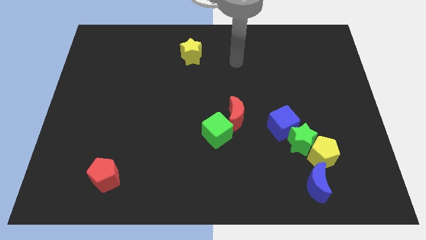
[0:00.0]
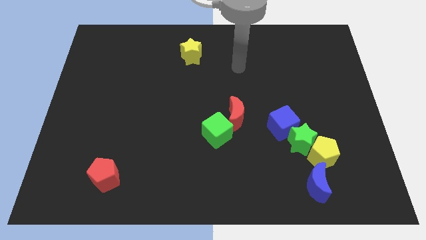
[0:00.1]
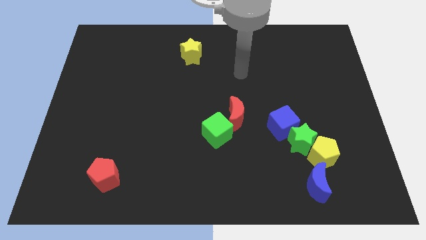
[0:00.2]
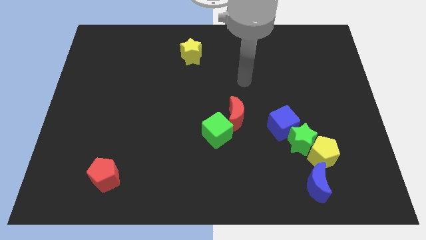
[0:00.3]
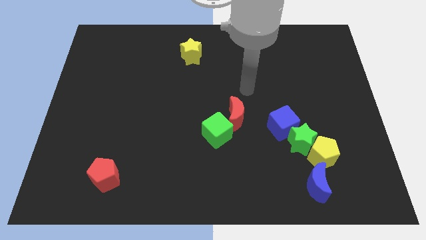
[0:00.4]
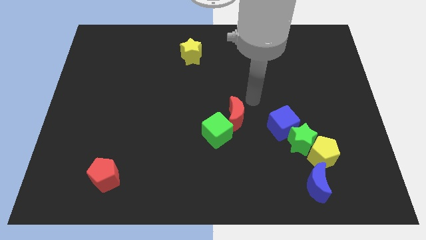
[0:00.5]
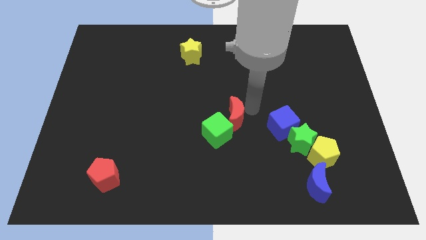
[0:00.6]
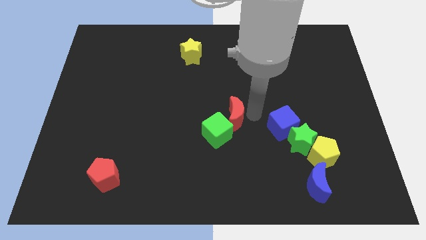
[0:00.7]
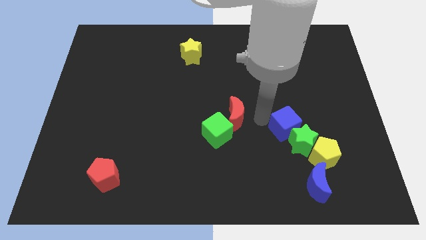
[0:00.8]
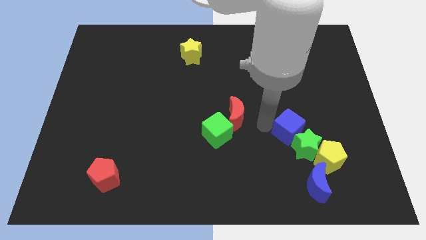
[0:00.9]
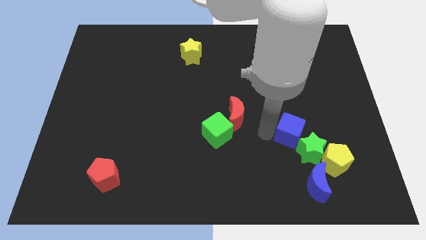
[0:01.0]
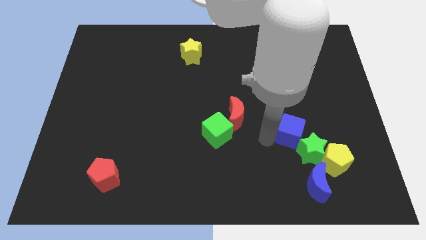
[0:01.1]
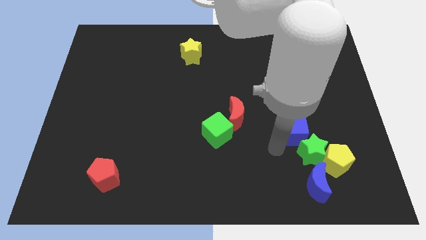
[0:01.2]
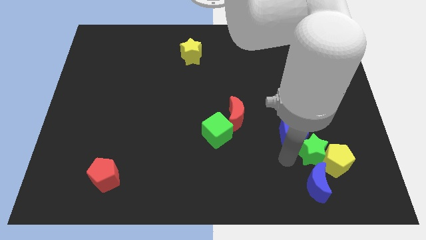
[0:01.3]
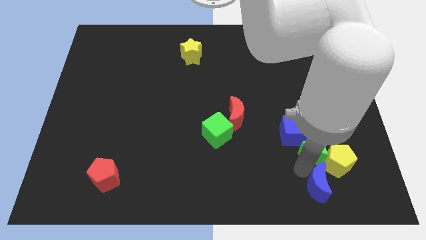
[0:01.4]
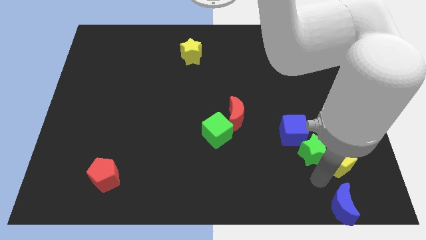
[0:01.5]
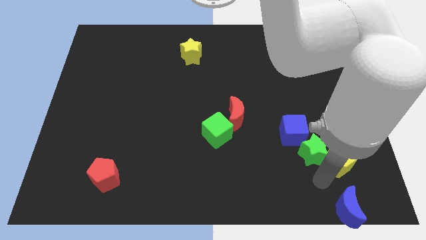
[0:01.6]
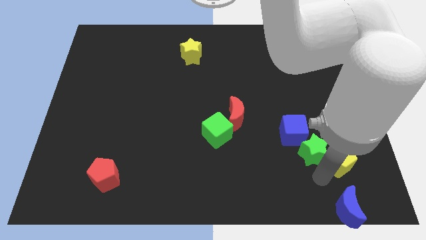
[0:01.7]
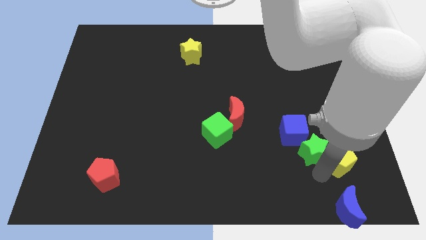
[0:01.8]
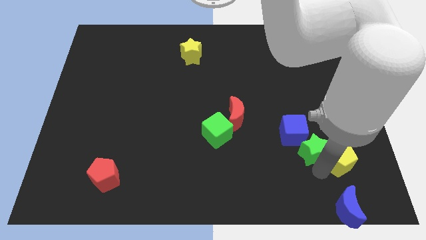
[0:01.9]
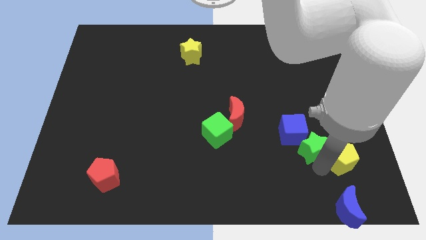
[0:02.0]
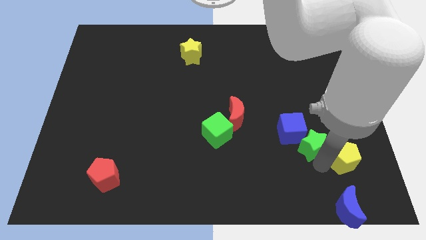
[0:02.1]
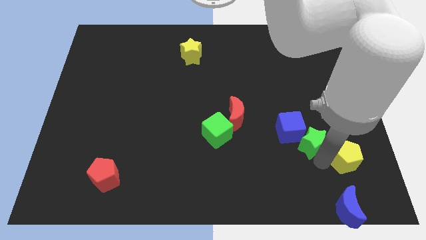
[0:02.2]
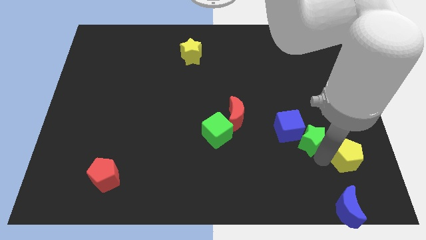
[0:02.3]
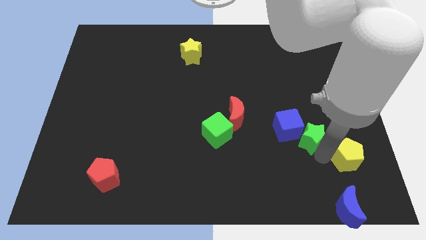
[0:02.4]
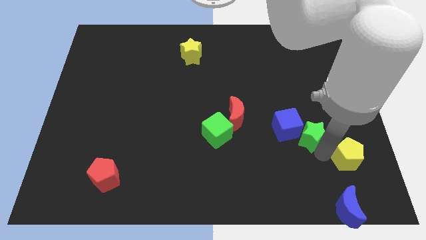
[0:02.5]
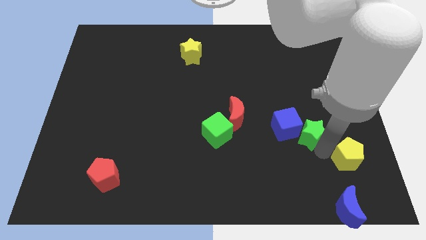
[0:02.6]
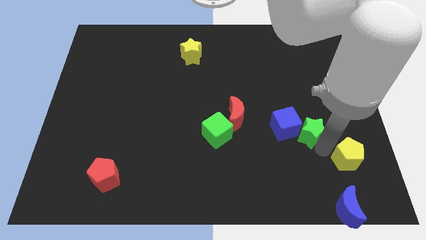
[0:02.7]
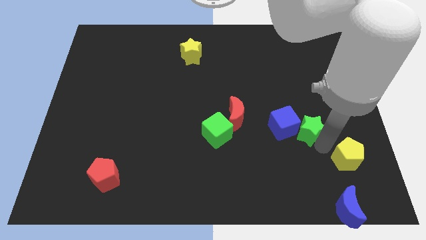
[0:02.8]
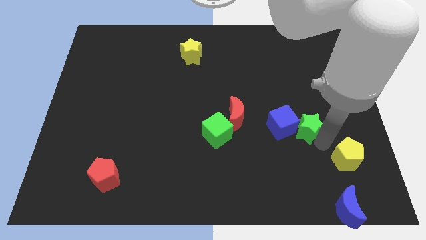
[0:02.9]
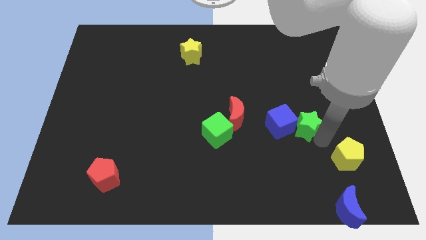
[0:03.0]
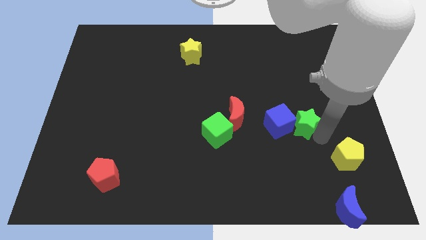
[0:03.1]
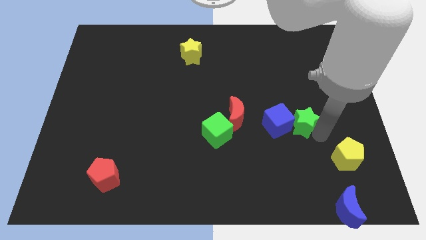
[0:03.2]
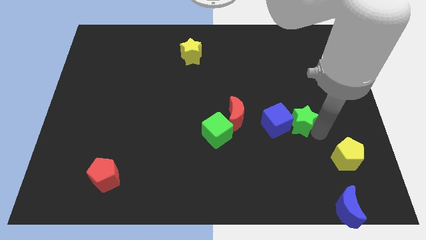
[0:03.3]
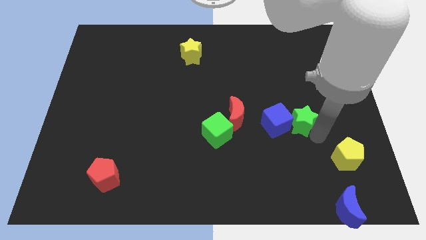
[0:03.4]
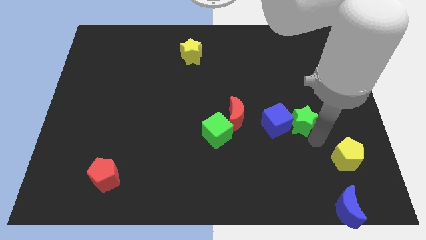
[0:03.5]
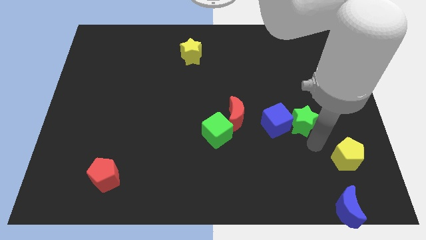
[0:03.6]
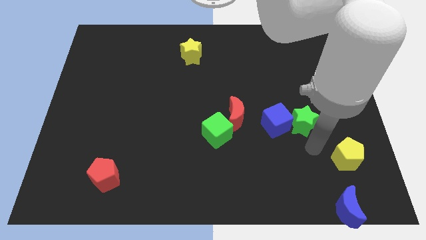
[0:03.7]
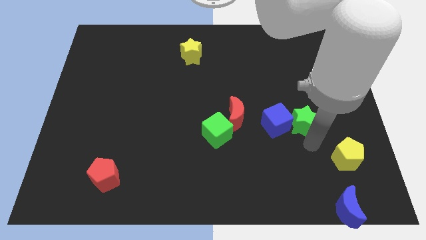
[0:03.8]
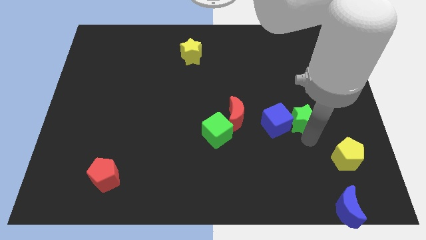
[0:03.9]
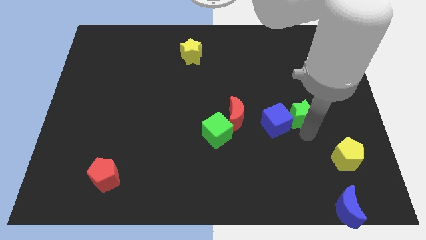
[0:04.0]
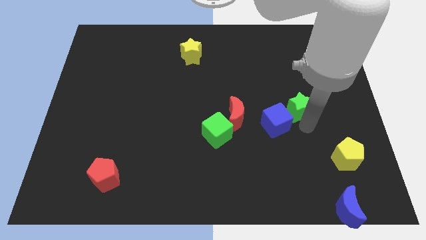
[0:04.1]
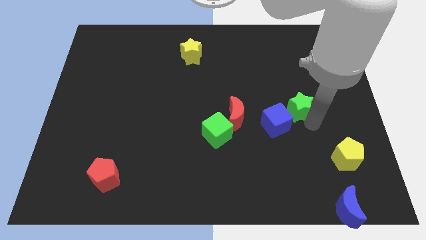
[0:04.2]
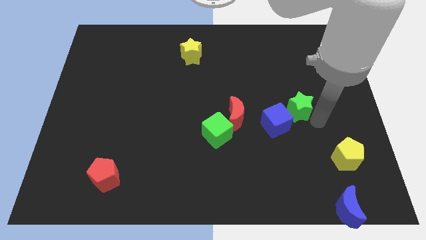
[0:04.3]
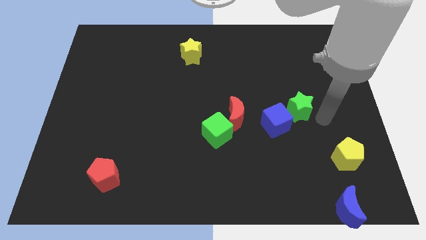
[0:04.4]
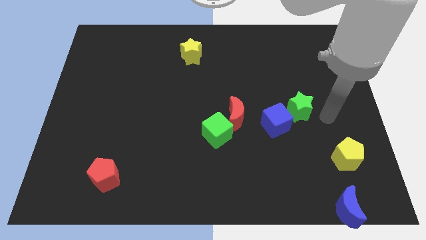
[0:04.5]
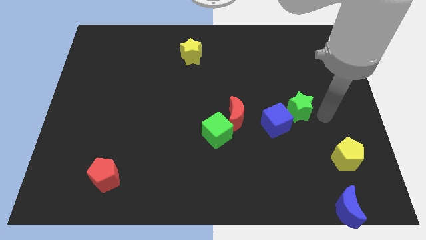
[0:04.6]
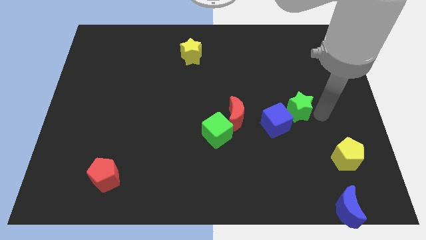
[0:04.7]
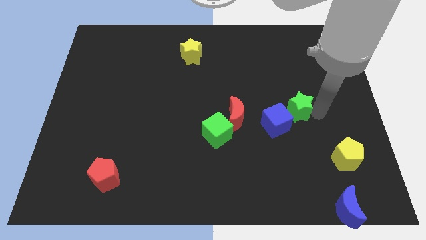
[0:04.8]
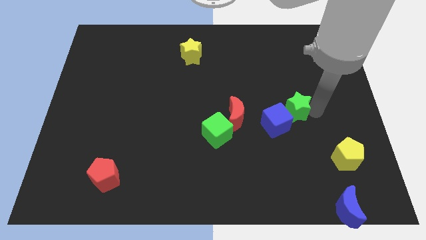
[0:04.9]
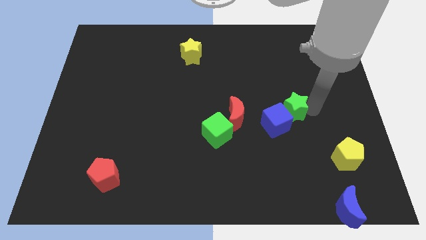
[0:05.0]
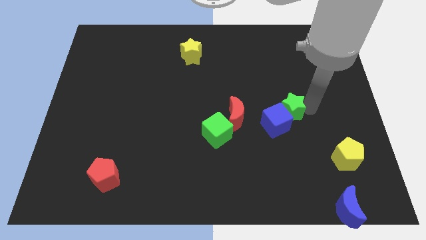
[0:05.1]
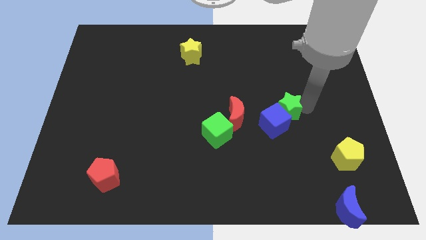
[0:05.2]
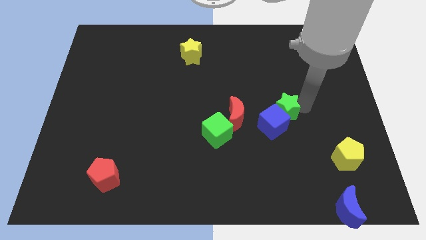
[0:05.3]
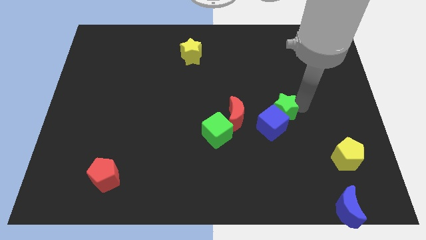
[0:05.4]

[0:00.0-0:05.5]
slightly slide the green star up and left diagonally

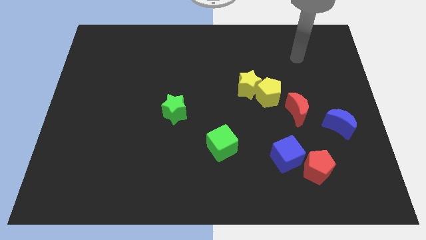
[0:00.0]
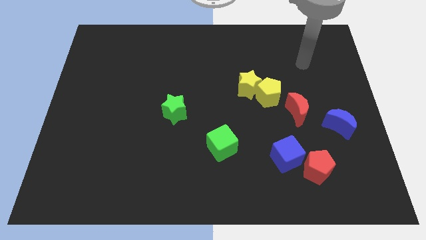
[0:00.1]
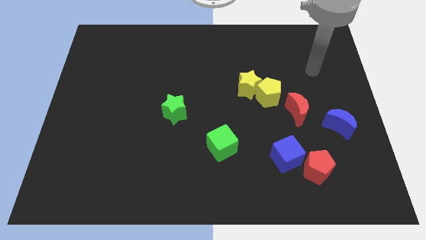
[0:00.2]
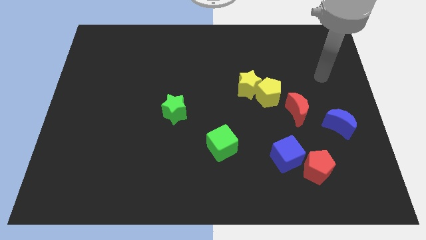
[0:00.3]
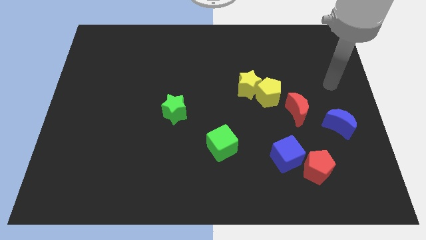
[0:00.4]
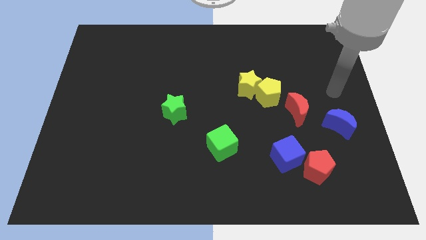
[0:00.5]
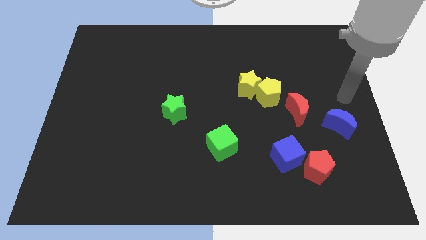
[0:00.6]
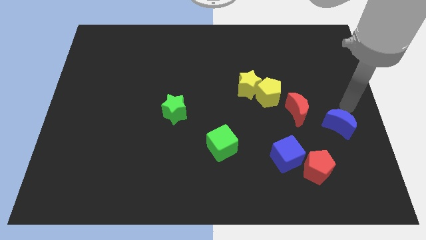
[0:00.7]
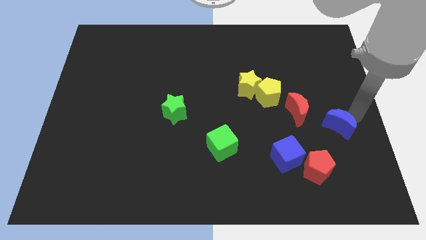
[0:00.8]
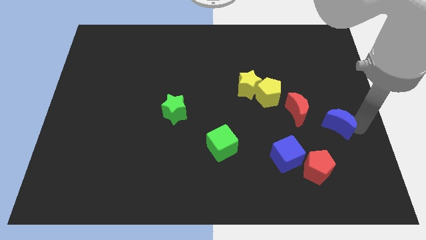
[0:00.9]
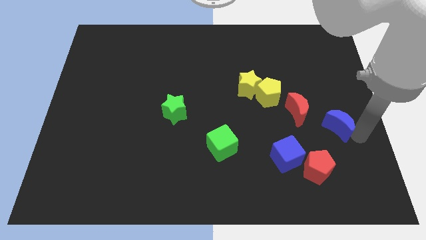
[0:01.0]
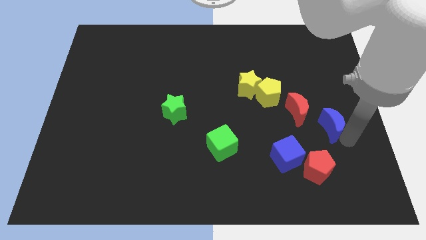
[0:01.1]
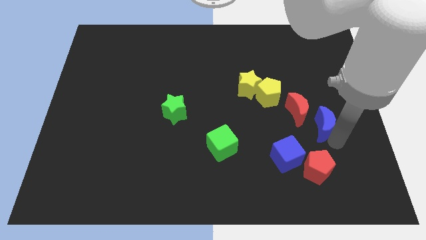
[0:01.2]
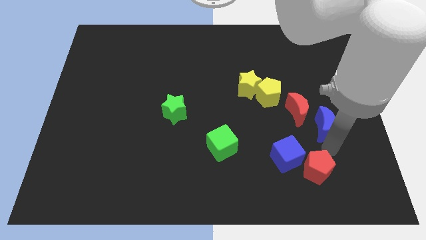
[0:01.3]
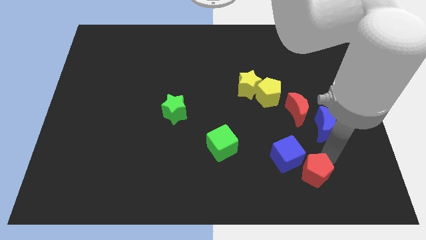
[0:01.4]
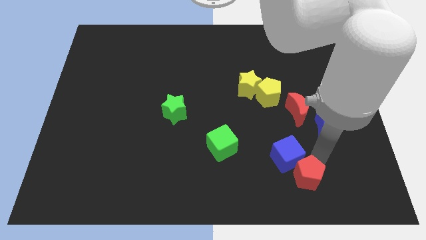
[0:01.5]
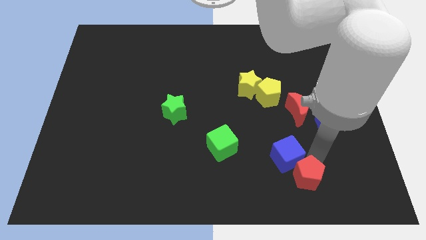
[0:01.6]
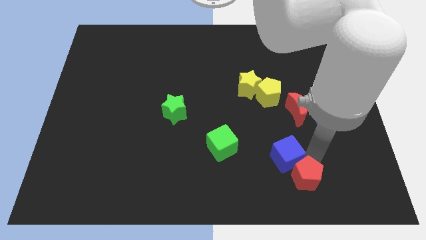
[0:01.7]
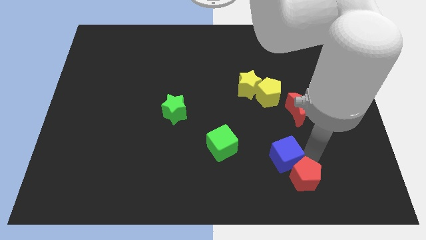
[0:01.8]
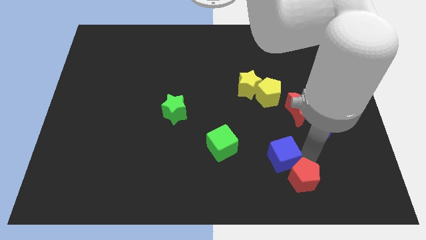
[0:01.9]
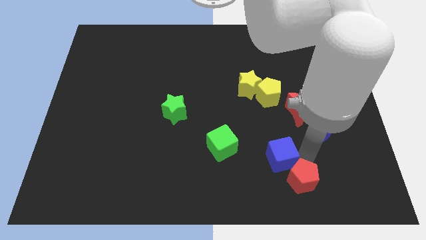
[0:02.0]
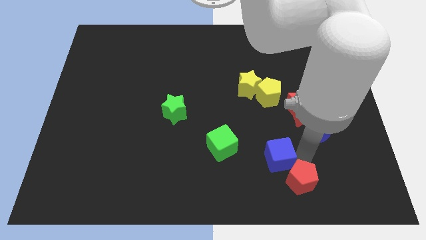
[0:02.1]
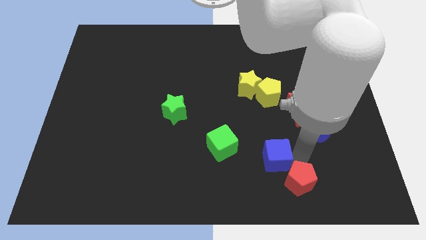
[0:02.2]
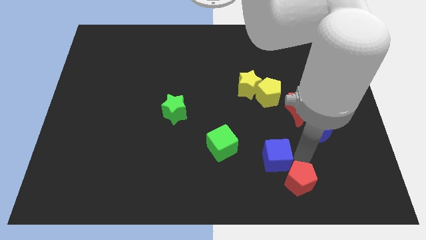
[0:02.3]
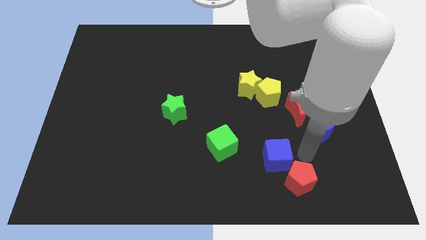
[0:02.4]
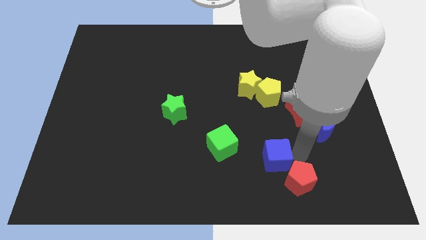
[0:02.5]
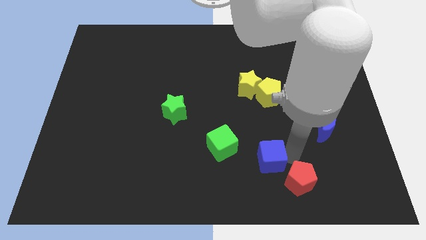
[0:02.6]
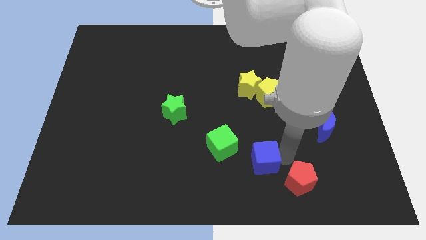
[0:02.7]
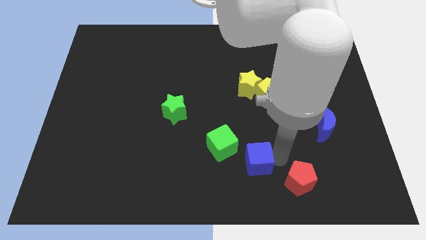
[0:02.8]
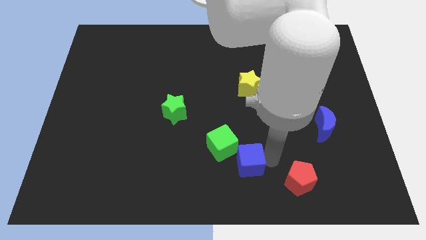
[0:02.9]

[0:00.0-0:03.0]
slide the blue cube left a little
